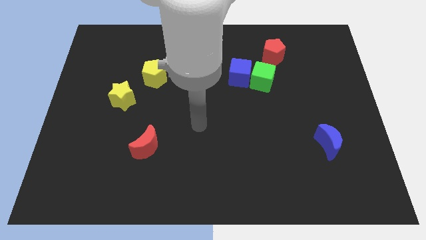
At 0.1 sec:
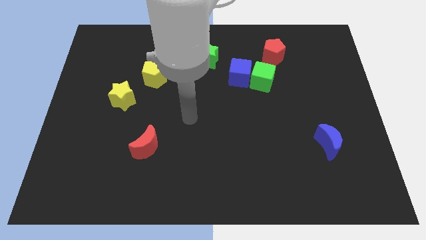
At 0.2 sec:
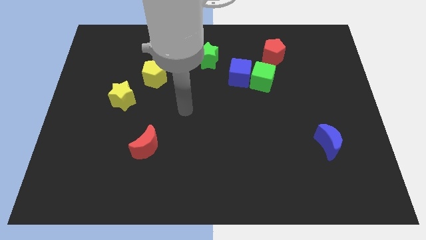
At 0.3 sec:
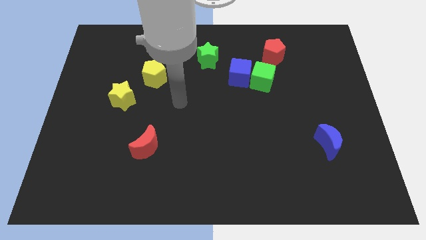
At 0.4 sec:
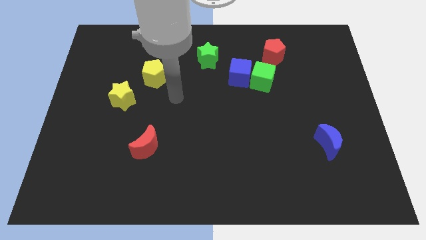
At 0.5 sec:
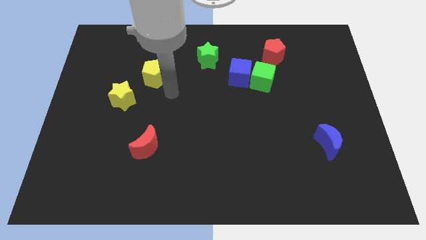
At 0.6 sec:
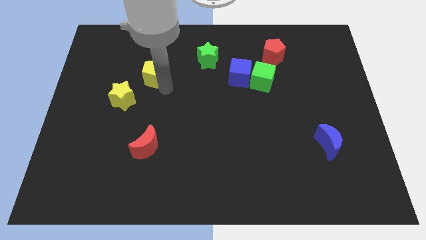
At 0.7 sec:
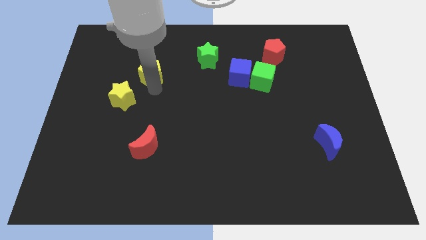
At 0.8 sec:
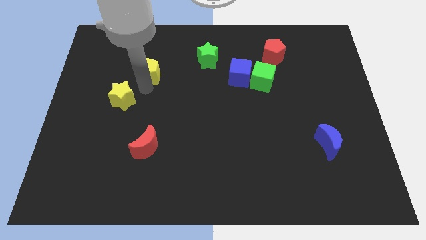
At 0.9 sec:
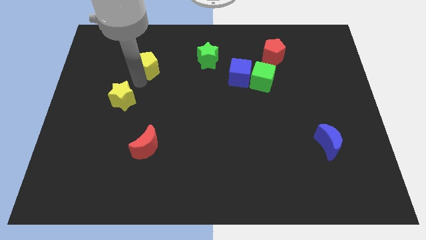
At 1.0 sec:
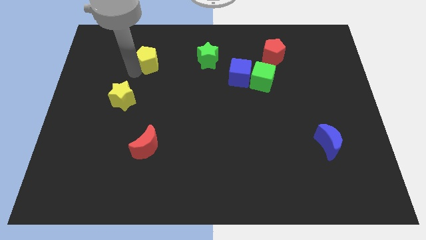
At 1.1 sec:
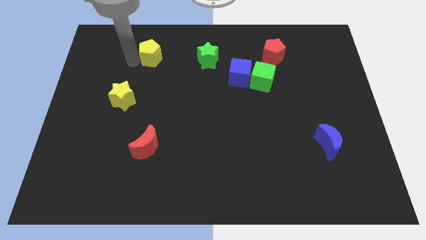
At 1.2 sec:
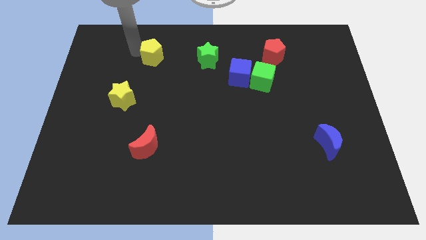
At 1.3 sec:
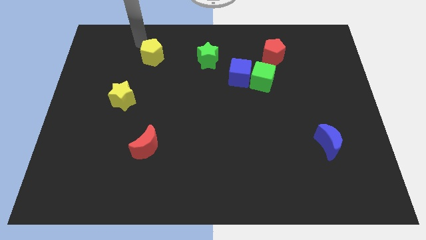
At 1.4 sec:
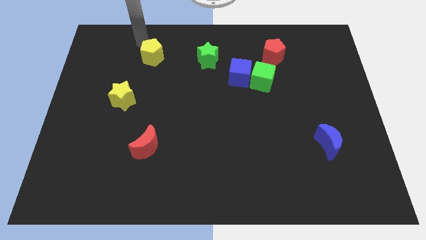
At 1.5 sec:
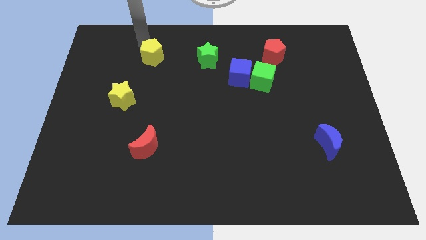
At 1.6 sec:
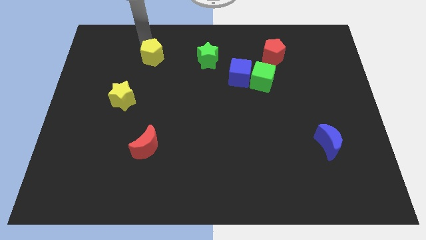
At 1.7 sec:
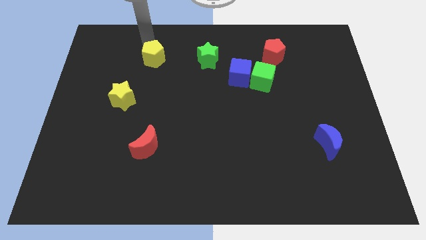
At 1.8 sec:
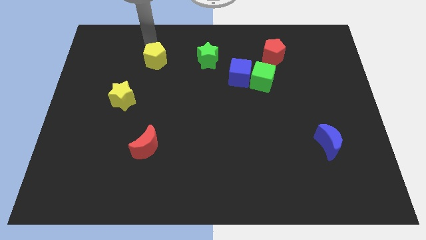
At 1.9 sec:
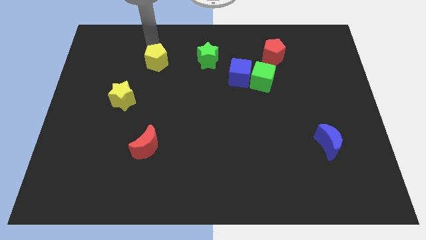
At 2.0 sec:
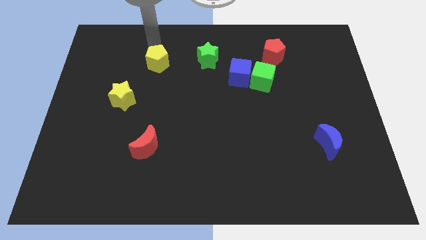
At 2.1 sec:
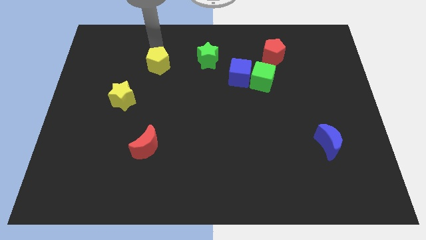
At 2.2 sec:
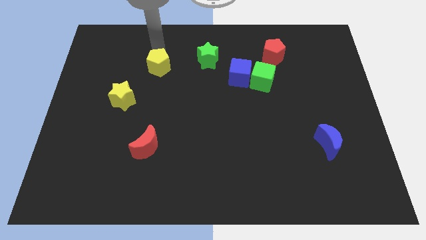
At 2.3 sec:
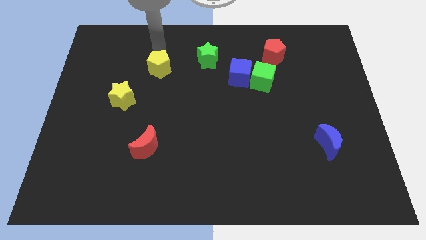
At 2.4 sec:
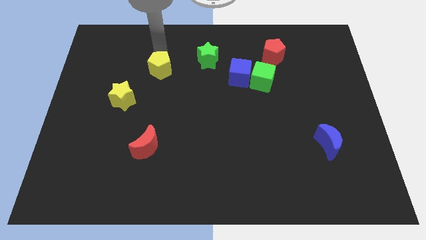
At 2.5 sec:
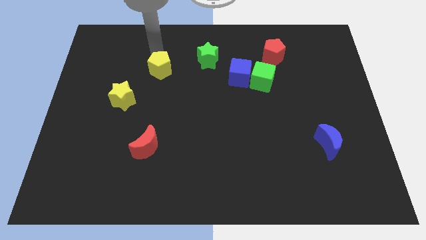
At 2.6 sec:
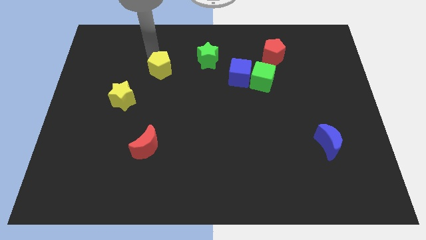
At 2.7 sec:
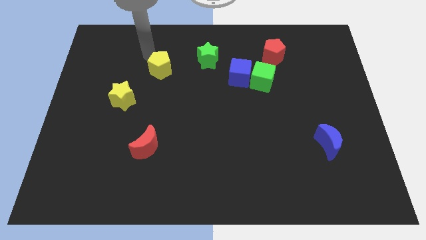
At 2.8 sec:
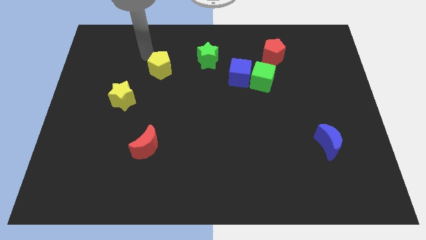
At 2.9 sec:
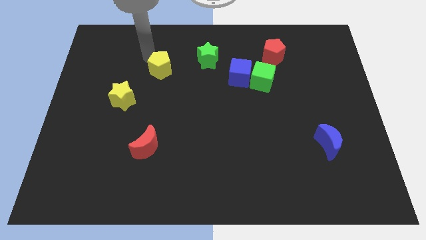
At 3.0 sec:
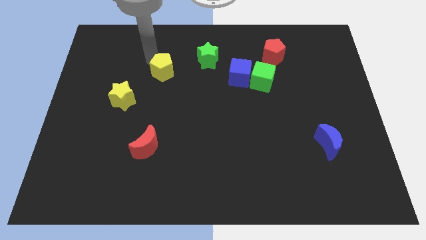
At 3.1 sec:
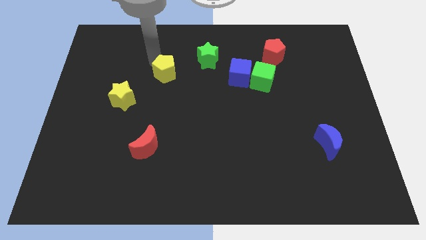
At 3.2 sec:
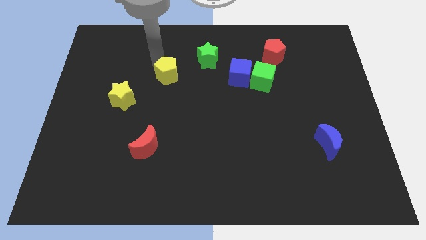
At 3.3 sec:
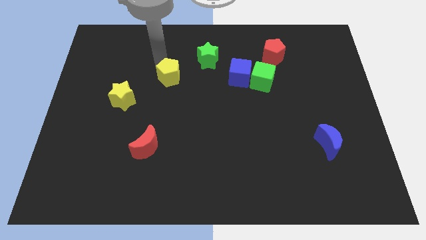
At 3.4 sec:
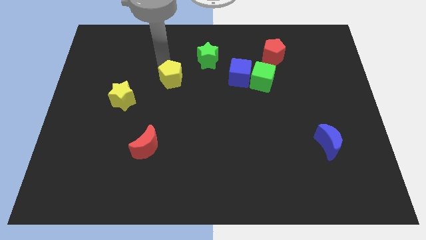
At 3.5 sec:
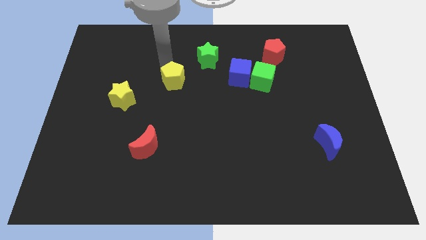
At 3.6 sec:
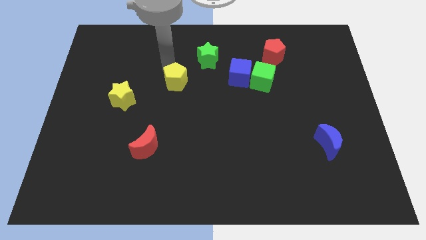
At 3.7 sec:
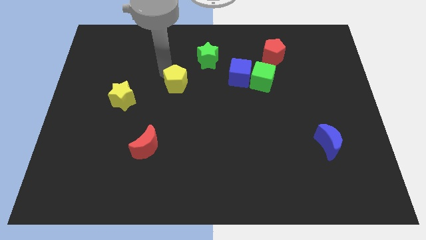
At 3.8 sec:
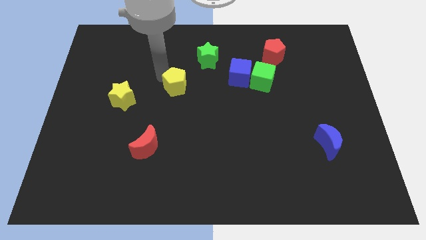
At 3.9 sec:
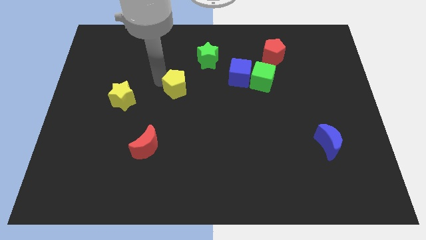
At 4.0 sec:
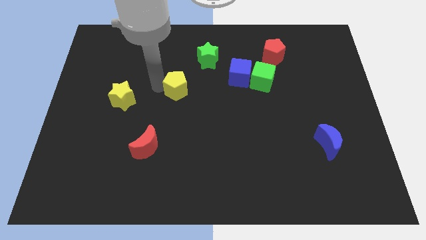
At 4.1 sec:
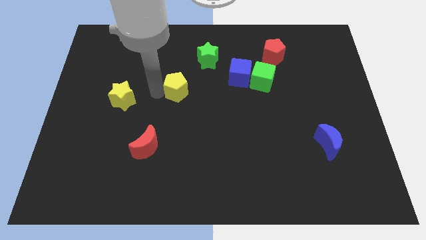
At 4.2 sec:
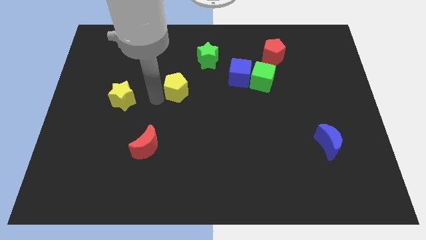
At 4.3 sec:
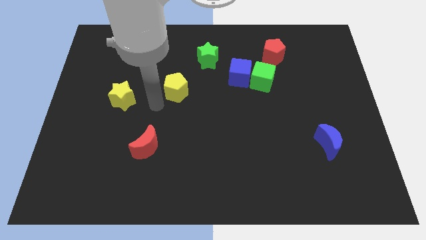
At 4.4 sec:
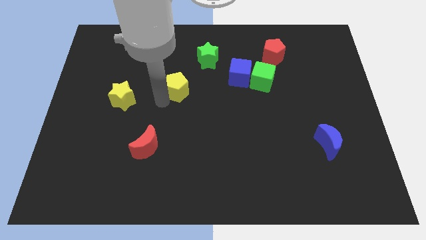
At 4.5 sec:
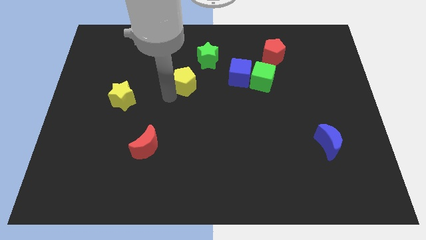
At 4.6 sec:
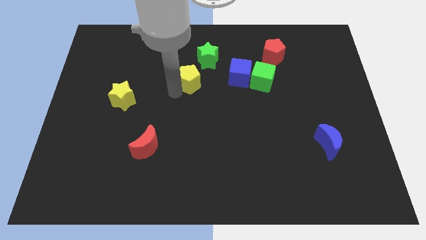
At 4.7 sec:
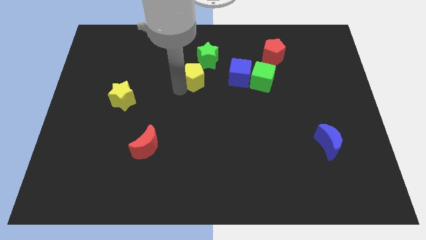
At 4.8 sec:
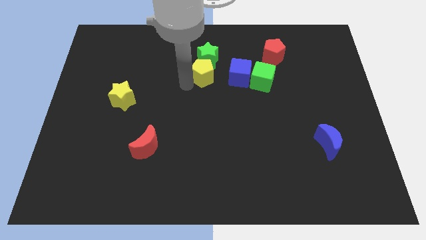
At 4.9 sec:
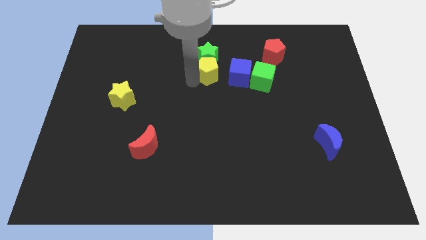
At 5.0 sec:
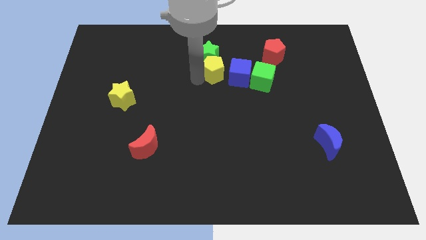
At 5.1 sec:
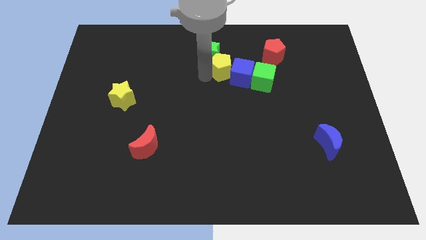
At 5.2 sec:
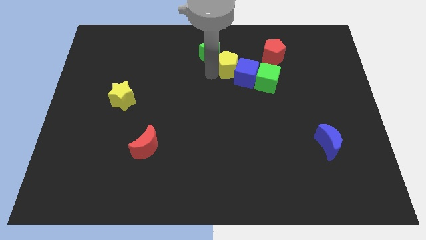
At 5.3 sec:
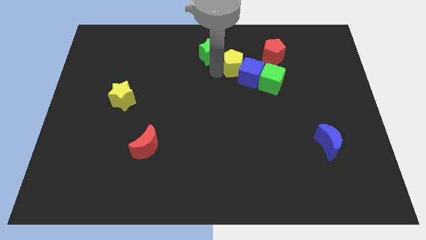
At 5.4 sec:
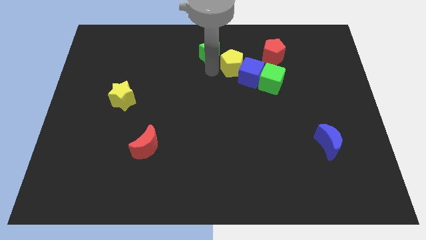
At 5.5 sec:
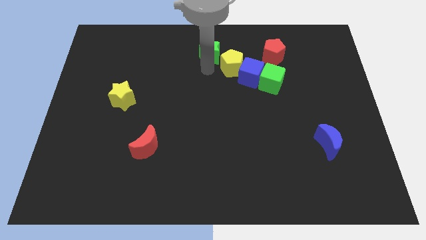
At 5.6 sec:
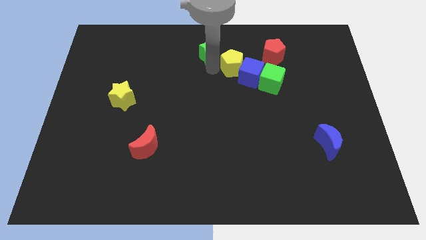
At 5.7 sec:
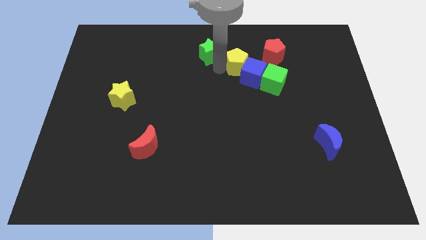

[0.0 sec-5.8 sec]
push the yellow pentagon to the right

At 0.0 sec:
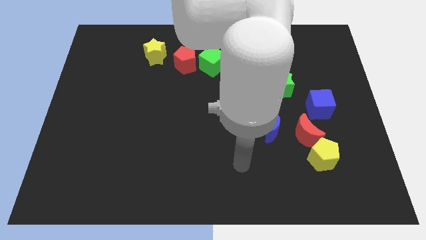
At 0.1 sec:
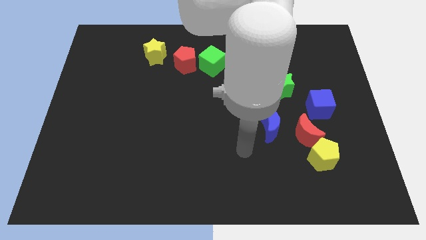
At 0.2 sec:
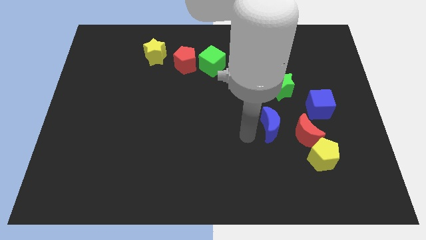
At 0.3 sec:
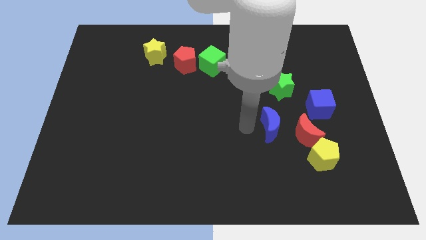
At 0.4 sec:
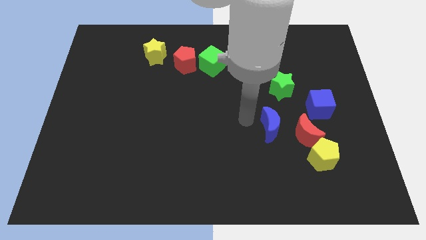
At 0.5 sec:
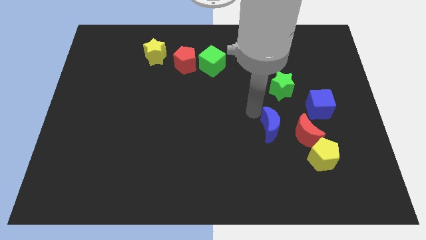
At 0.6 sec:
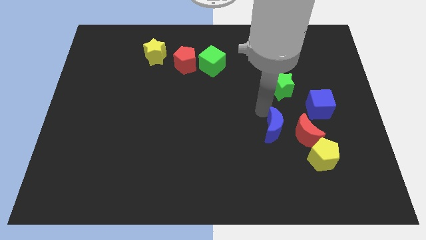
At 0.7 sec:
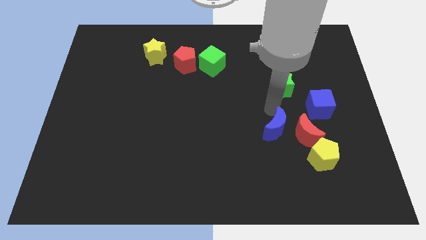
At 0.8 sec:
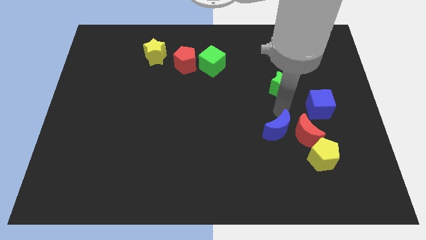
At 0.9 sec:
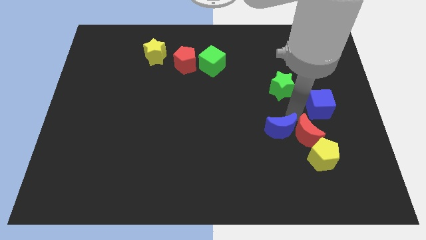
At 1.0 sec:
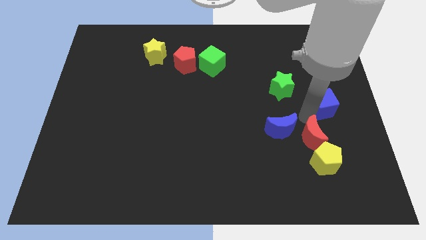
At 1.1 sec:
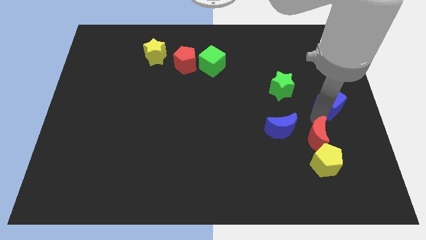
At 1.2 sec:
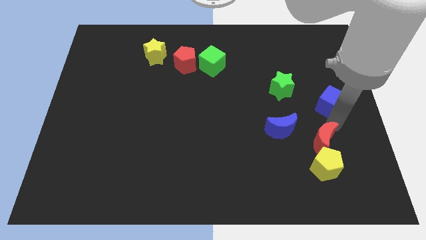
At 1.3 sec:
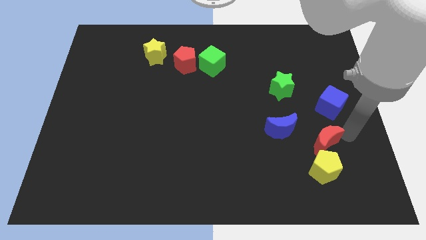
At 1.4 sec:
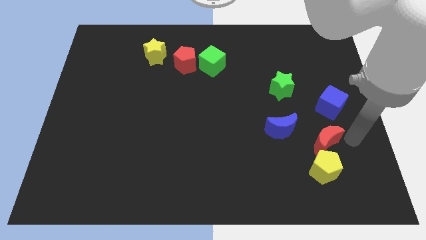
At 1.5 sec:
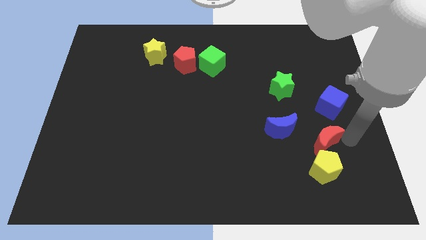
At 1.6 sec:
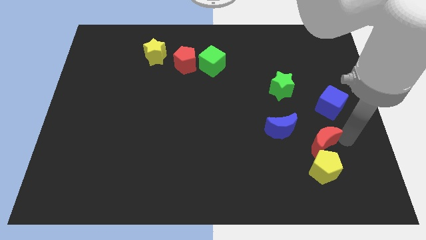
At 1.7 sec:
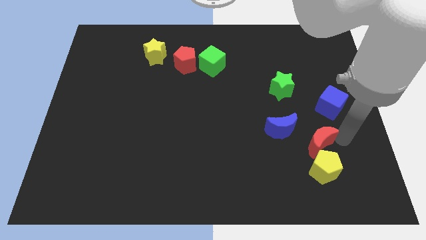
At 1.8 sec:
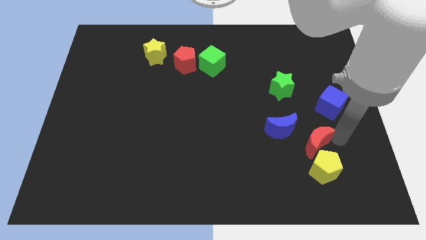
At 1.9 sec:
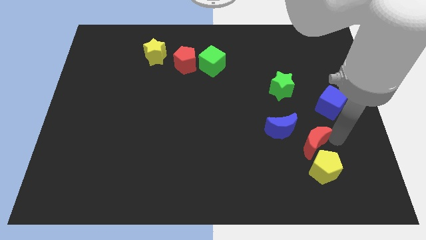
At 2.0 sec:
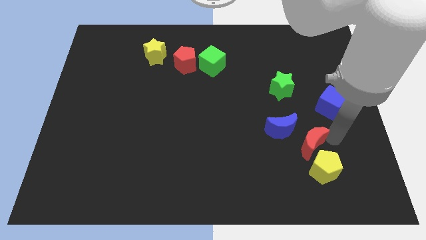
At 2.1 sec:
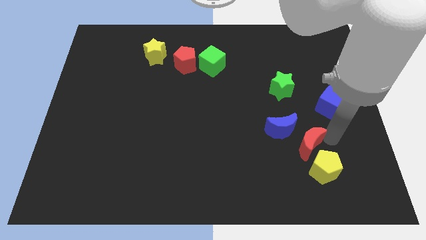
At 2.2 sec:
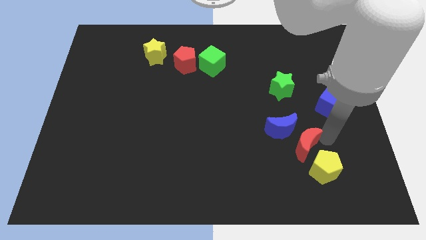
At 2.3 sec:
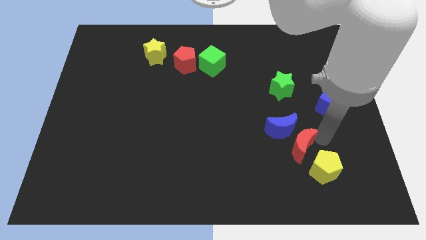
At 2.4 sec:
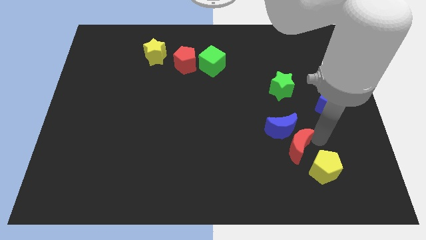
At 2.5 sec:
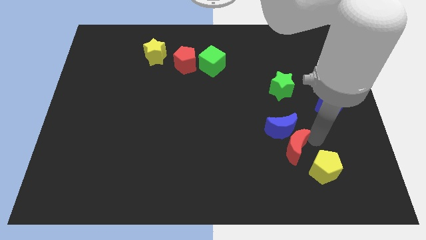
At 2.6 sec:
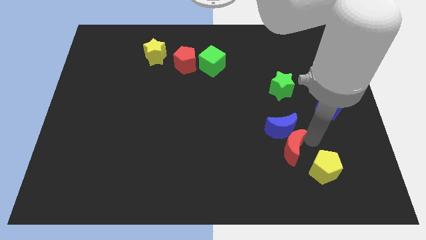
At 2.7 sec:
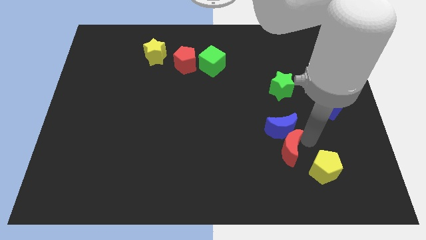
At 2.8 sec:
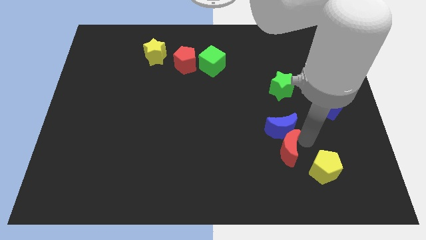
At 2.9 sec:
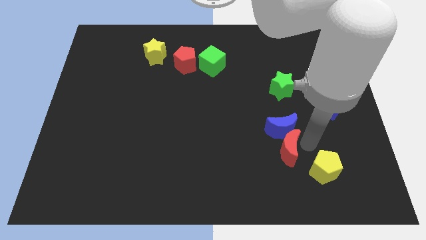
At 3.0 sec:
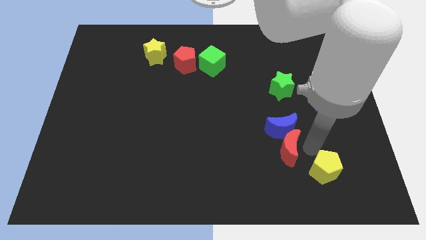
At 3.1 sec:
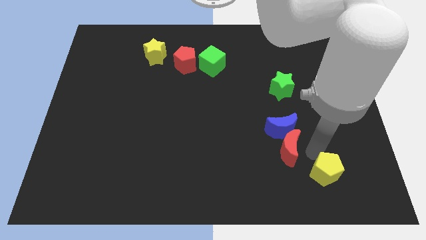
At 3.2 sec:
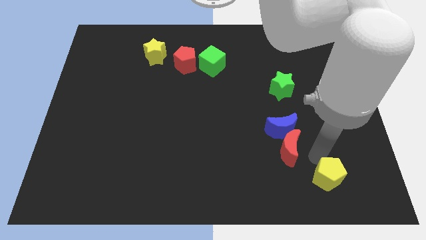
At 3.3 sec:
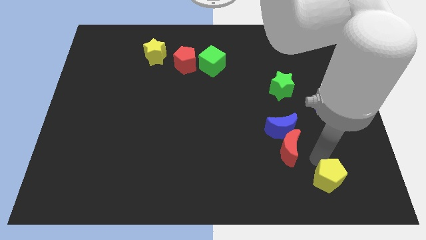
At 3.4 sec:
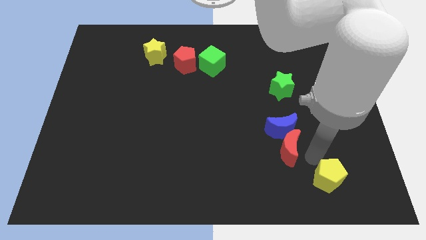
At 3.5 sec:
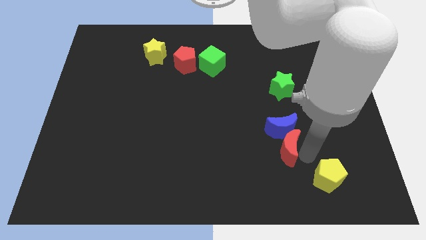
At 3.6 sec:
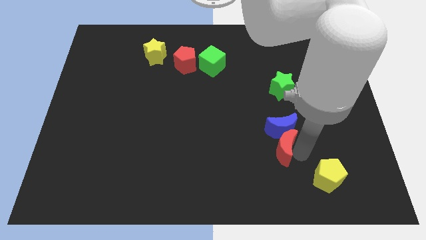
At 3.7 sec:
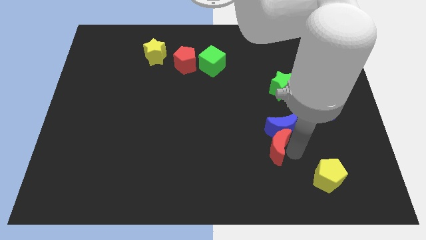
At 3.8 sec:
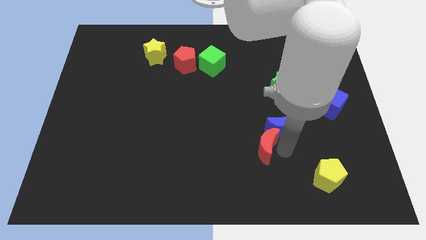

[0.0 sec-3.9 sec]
move the red moon somewhat to the left
